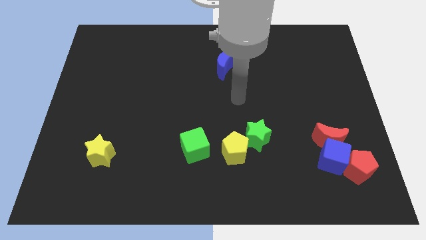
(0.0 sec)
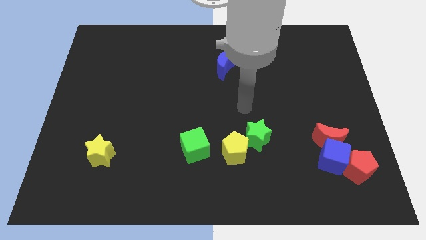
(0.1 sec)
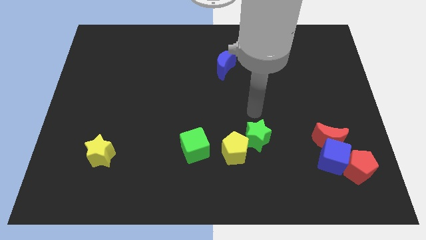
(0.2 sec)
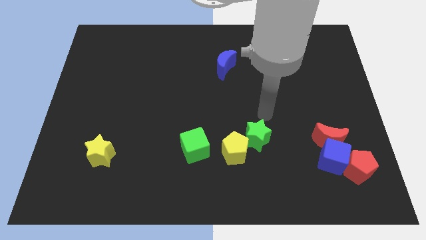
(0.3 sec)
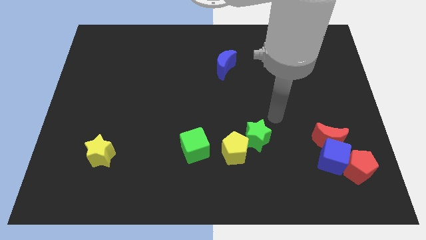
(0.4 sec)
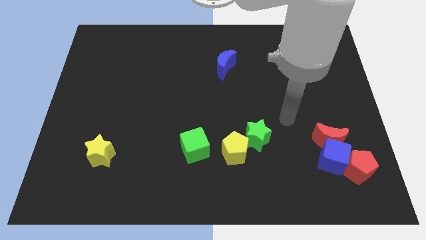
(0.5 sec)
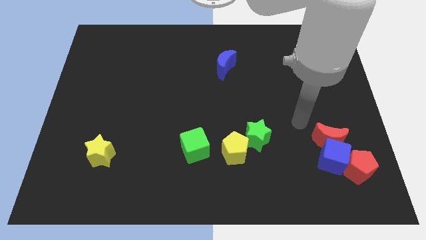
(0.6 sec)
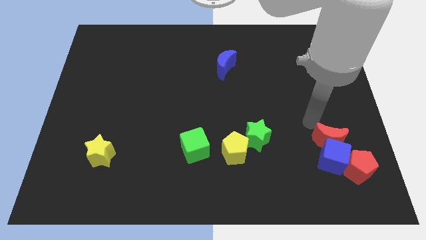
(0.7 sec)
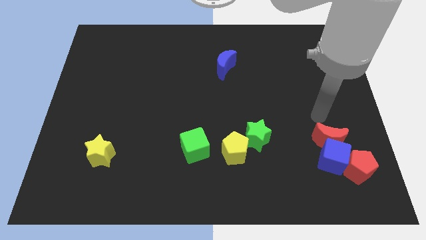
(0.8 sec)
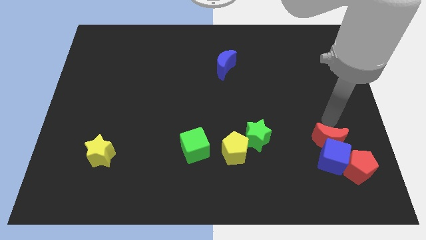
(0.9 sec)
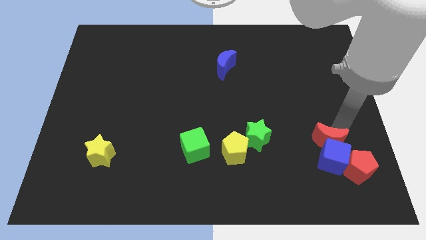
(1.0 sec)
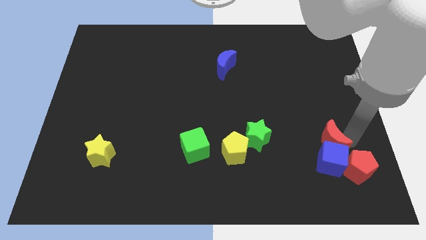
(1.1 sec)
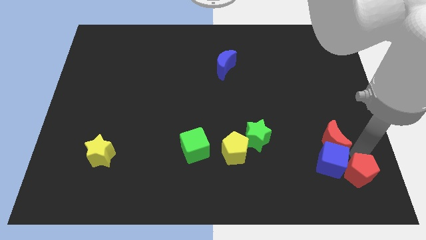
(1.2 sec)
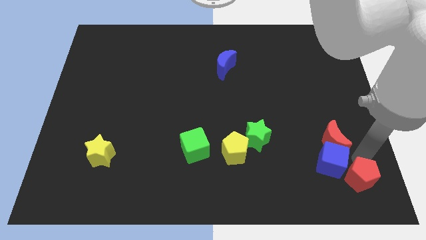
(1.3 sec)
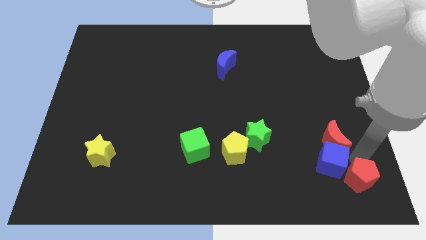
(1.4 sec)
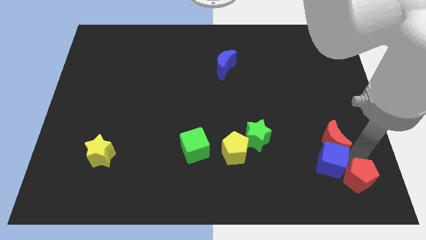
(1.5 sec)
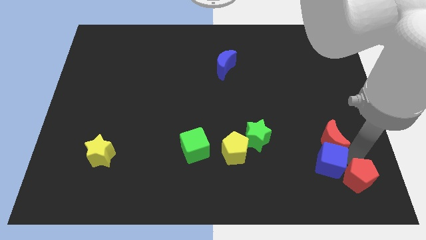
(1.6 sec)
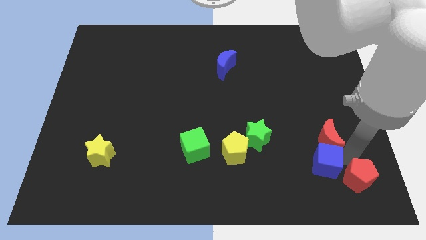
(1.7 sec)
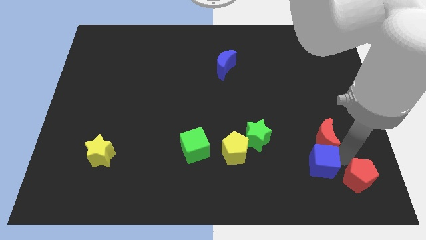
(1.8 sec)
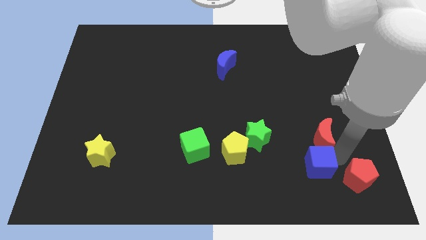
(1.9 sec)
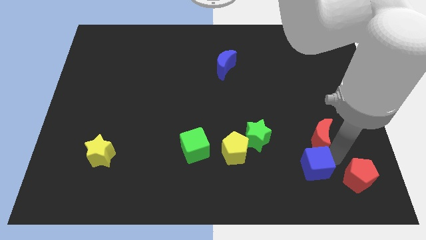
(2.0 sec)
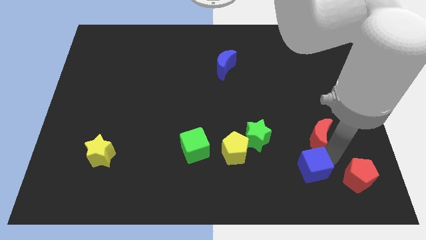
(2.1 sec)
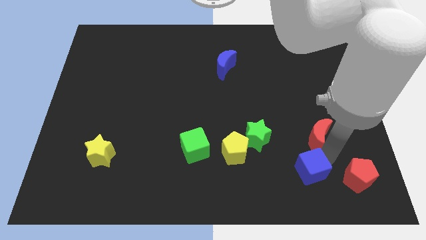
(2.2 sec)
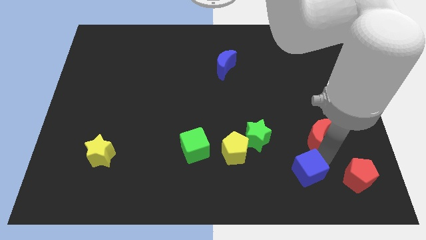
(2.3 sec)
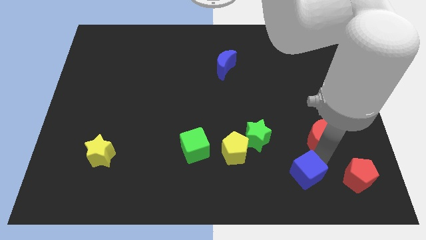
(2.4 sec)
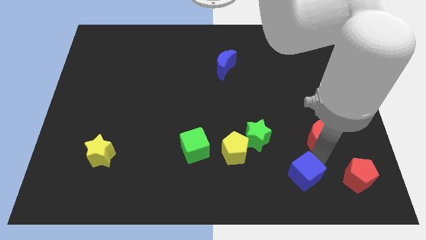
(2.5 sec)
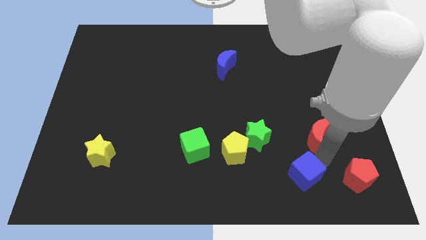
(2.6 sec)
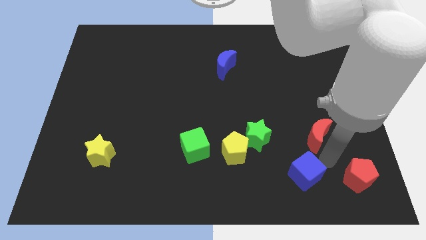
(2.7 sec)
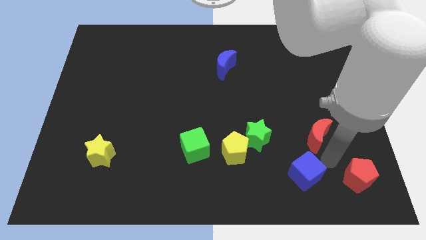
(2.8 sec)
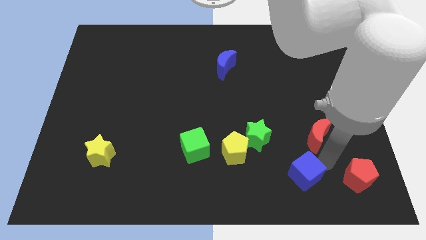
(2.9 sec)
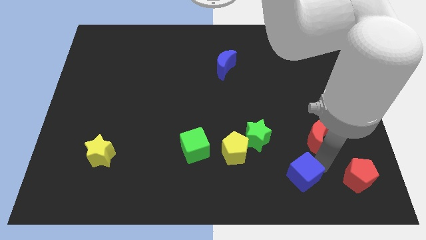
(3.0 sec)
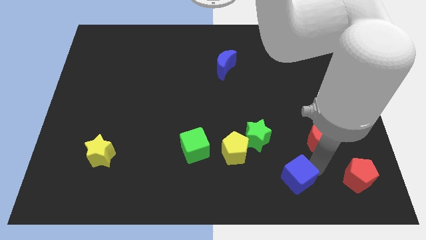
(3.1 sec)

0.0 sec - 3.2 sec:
pull the blue cube apart from the red moon and red pentagon

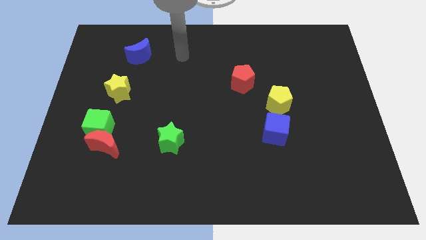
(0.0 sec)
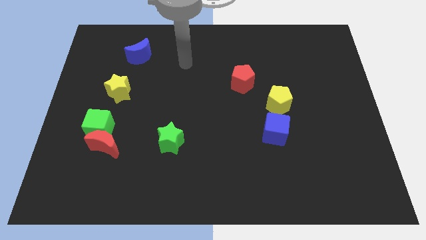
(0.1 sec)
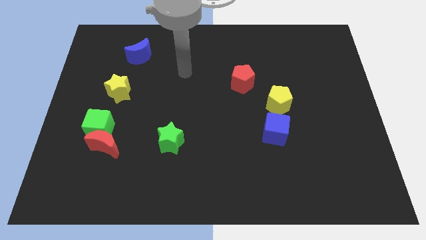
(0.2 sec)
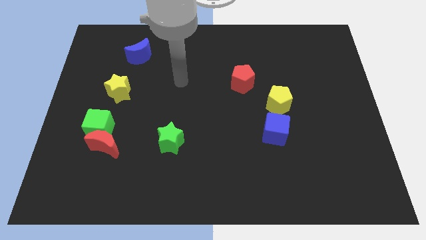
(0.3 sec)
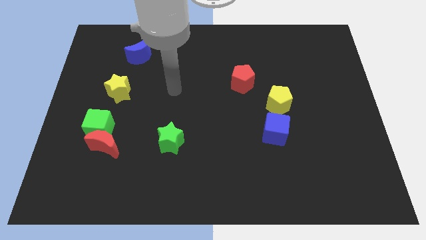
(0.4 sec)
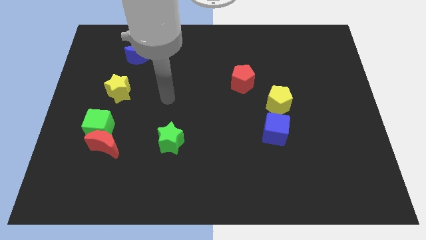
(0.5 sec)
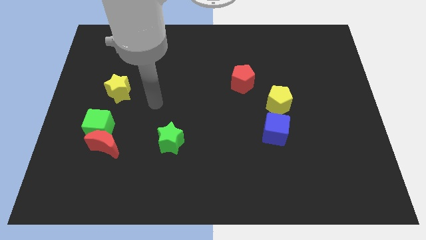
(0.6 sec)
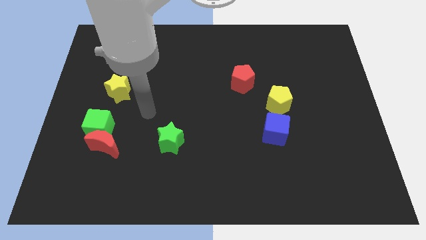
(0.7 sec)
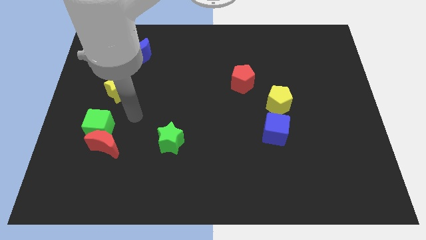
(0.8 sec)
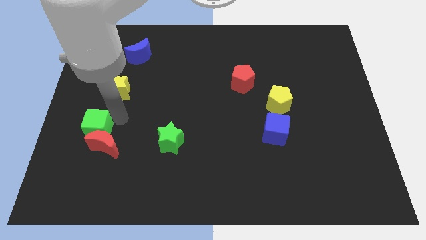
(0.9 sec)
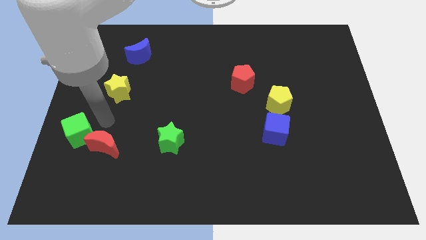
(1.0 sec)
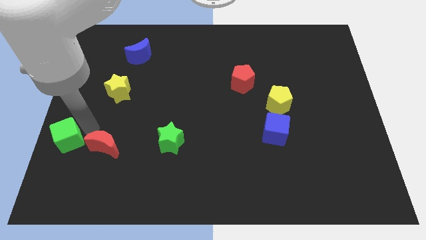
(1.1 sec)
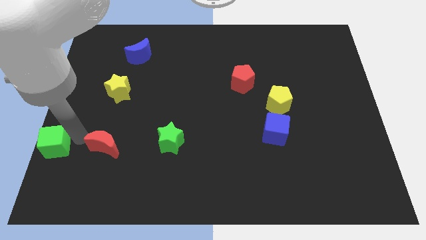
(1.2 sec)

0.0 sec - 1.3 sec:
move the red moon away from the green cube

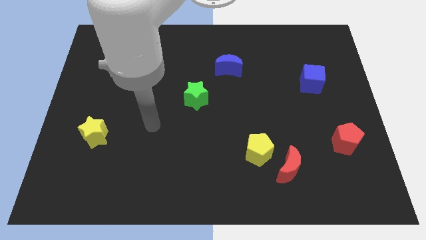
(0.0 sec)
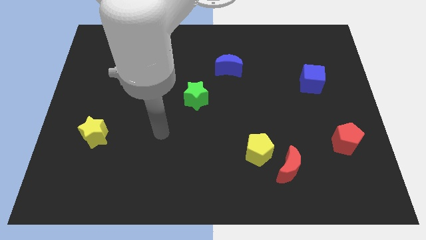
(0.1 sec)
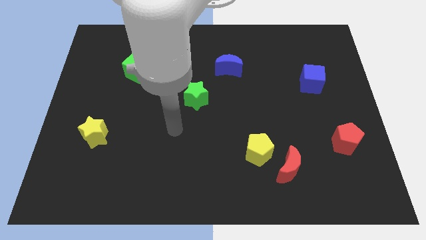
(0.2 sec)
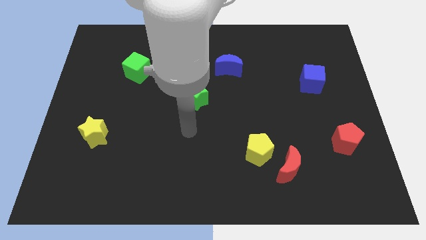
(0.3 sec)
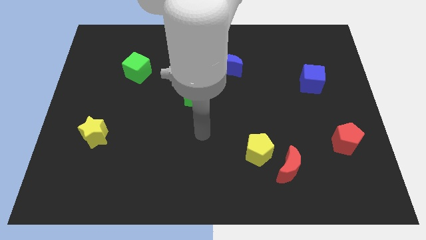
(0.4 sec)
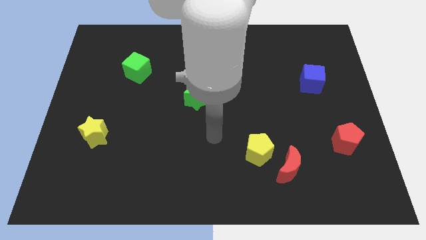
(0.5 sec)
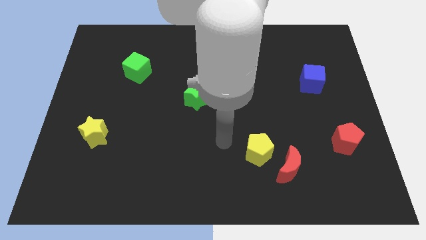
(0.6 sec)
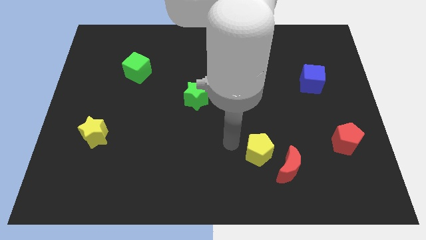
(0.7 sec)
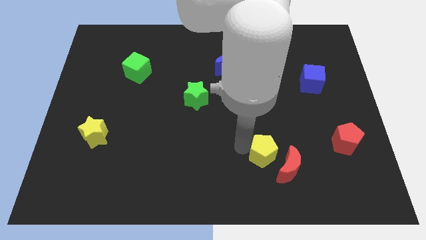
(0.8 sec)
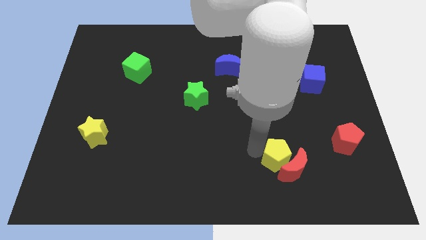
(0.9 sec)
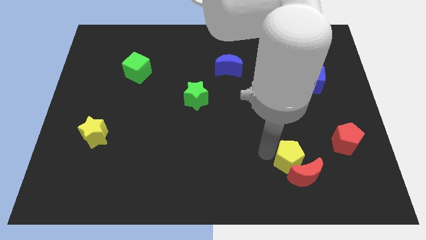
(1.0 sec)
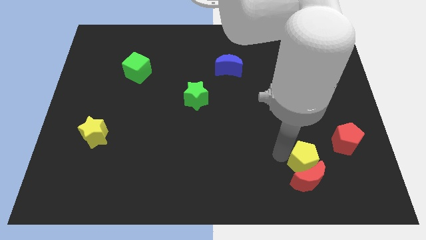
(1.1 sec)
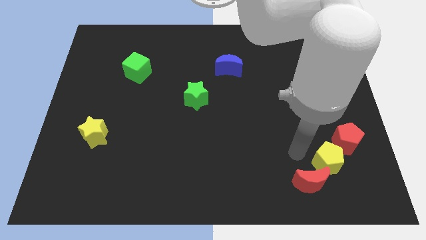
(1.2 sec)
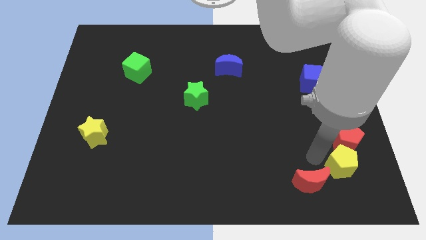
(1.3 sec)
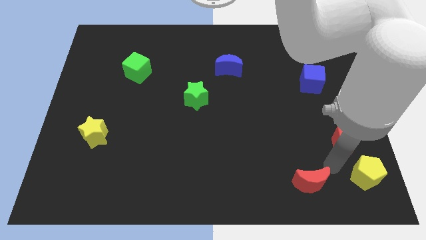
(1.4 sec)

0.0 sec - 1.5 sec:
move the red moon away from the yellow pentagon

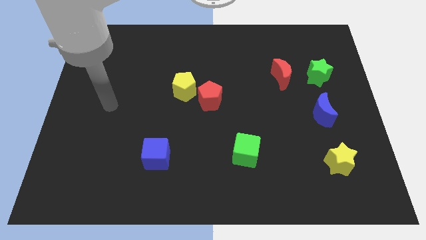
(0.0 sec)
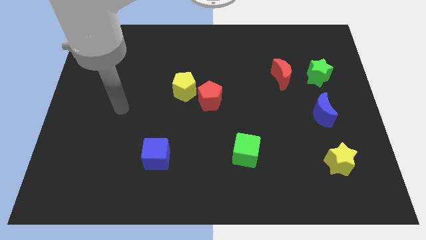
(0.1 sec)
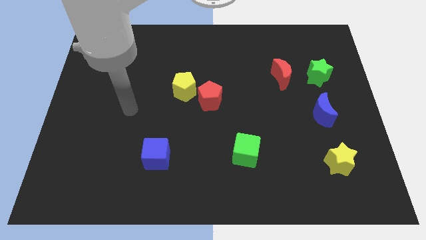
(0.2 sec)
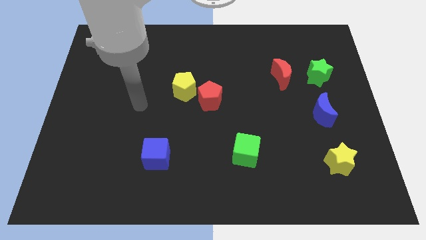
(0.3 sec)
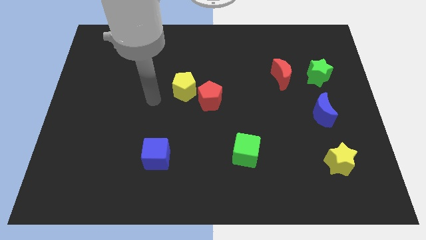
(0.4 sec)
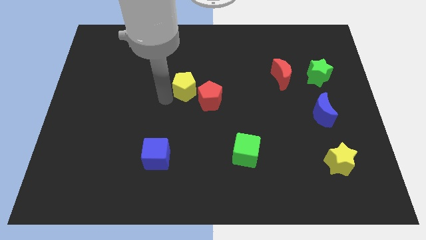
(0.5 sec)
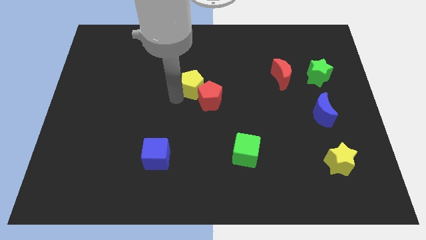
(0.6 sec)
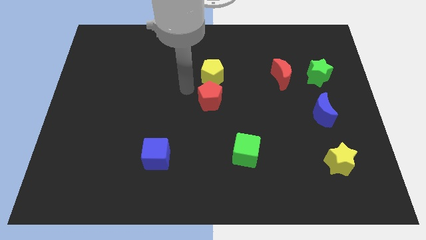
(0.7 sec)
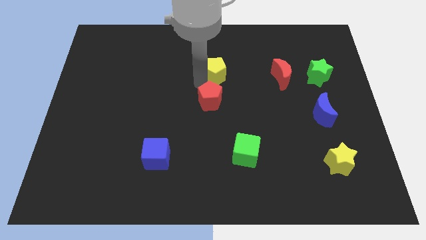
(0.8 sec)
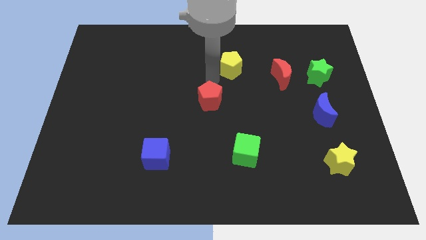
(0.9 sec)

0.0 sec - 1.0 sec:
move the red pentagon away from the yellow pentagon

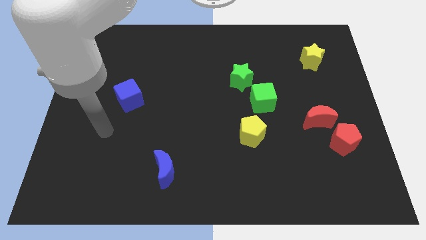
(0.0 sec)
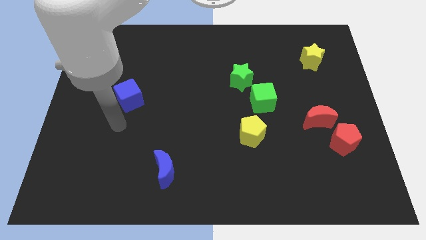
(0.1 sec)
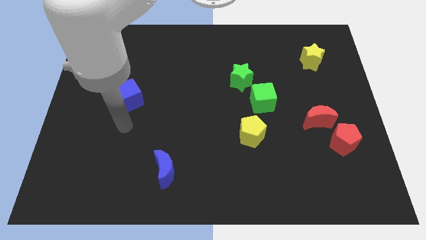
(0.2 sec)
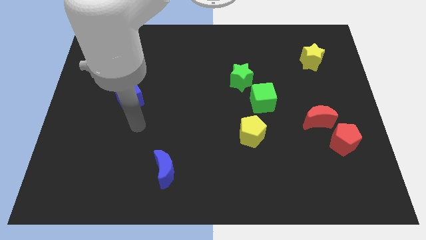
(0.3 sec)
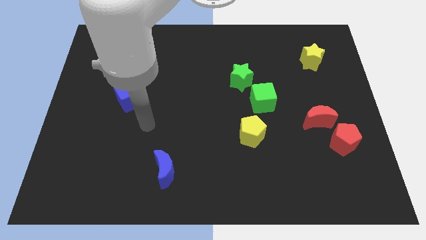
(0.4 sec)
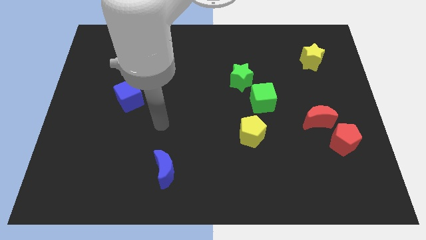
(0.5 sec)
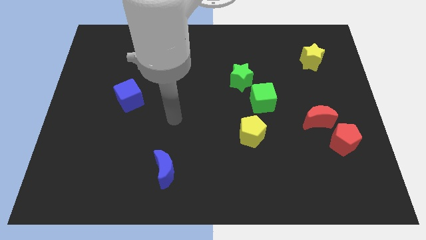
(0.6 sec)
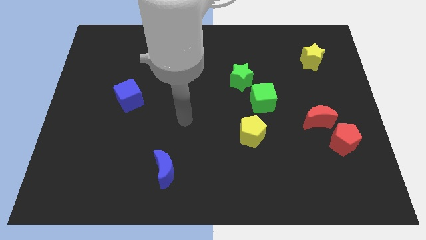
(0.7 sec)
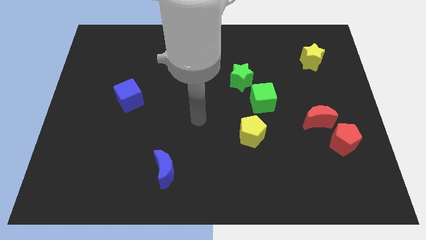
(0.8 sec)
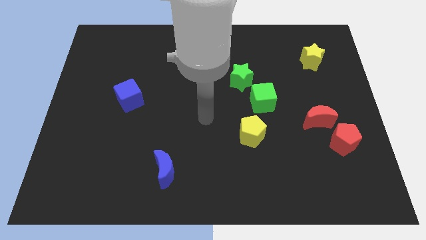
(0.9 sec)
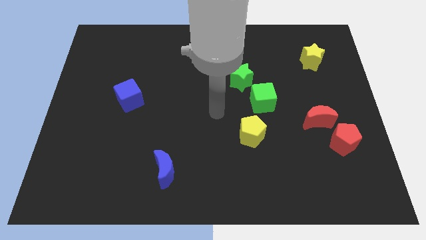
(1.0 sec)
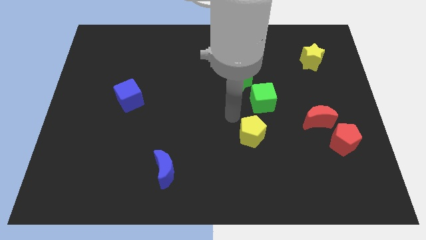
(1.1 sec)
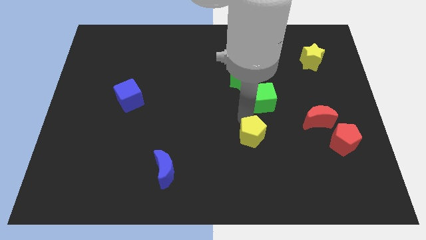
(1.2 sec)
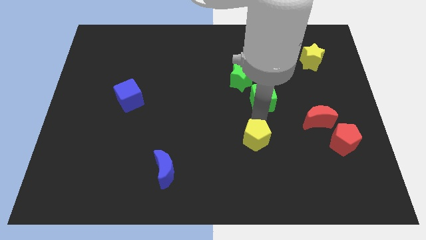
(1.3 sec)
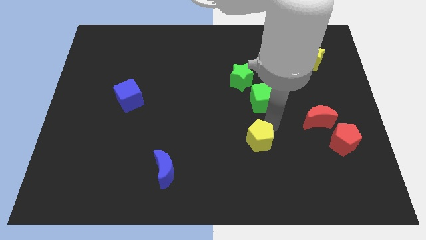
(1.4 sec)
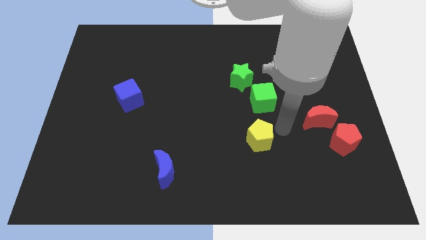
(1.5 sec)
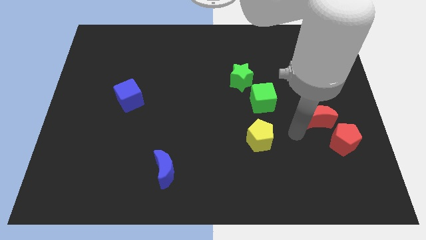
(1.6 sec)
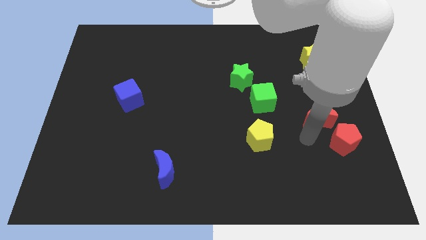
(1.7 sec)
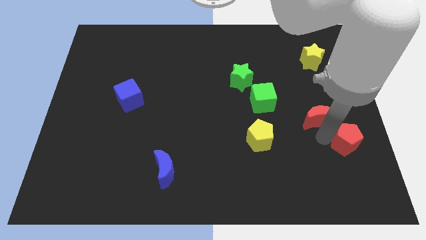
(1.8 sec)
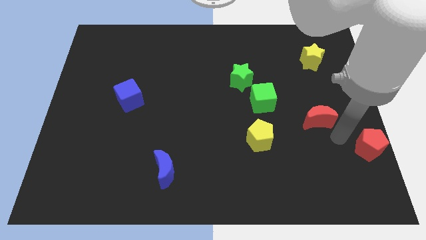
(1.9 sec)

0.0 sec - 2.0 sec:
pull the red moon apart from the red pentagon

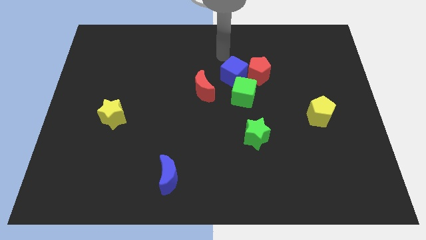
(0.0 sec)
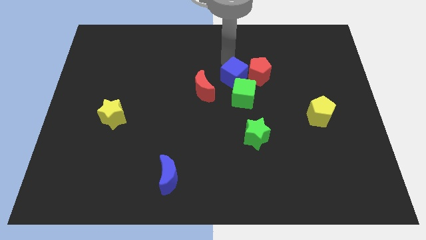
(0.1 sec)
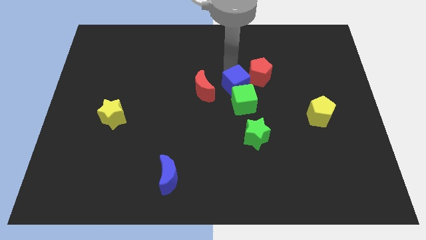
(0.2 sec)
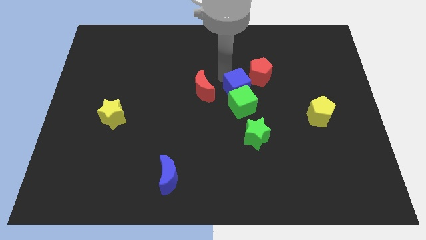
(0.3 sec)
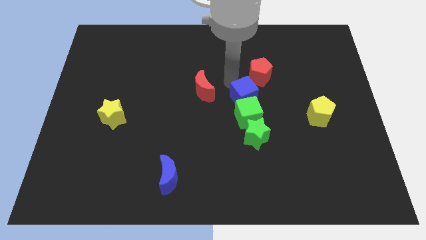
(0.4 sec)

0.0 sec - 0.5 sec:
separate the red pentagon from the blue cube and green cube
